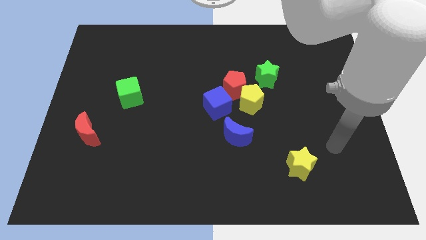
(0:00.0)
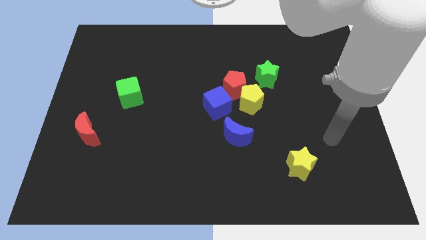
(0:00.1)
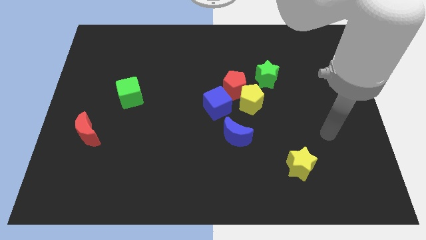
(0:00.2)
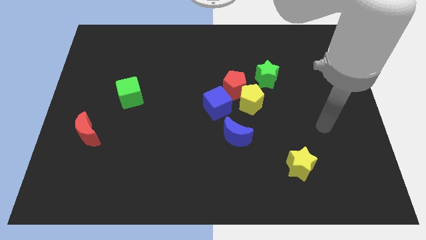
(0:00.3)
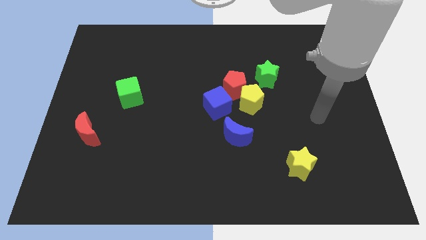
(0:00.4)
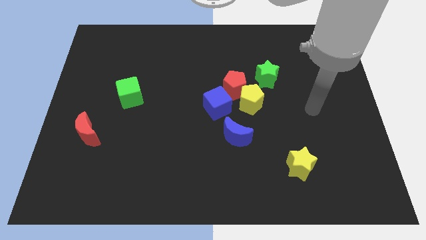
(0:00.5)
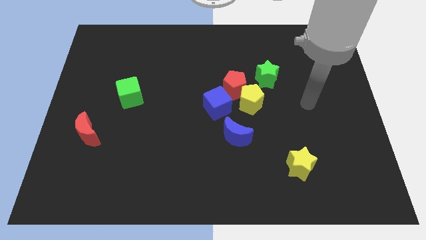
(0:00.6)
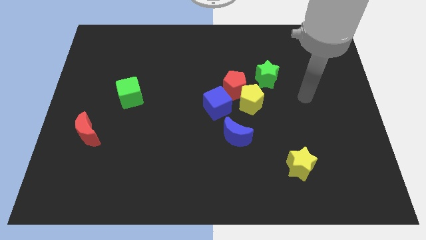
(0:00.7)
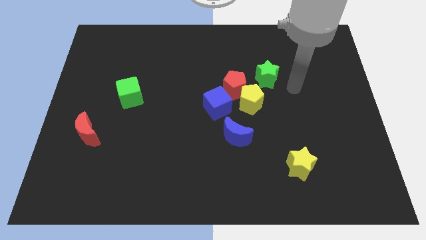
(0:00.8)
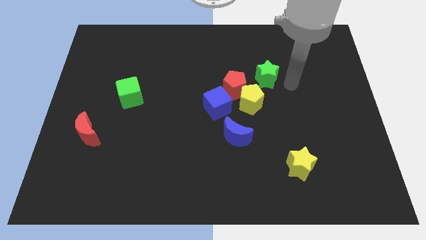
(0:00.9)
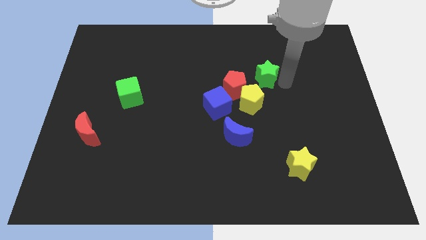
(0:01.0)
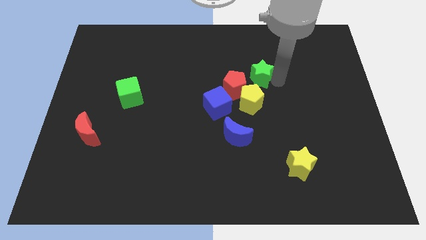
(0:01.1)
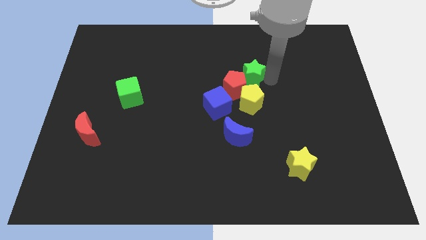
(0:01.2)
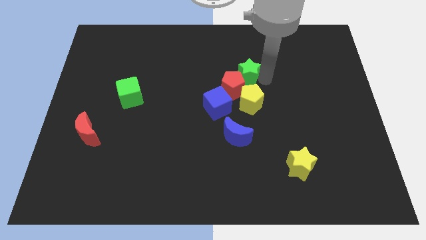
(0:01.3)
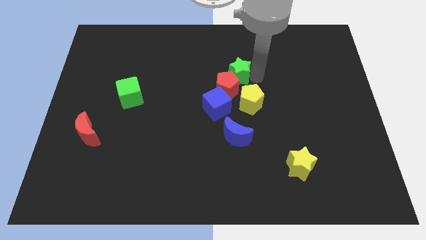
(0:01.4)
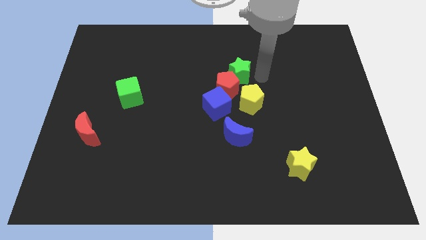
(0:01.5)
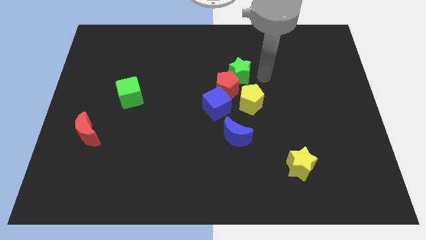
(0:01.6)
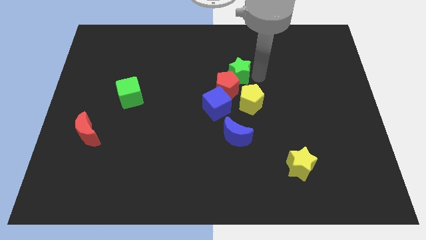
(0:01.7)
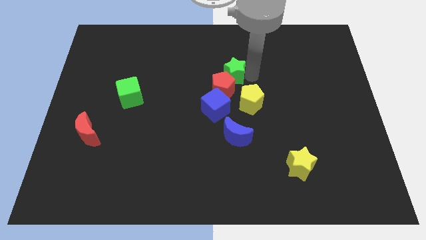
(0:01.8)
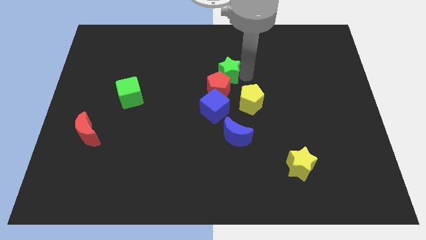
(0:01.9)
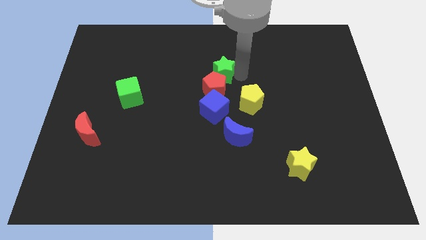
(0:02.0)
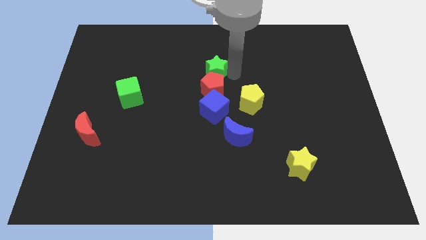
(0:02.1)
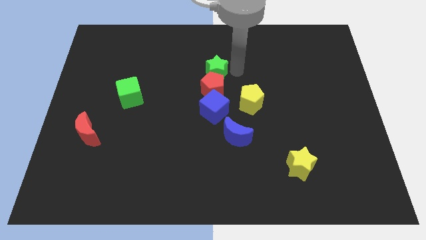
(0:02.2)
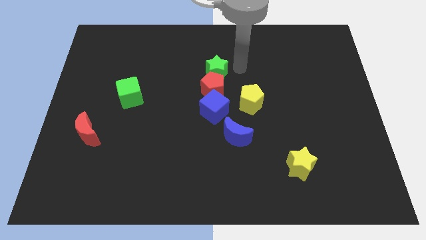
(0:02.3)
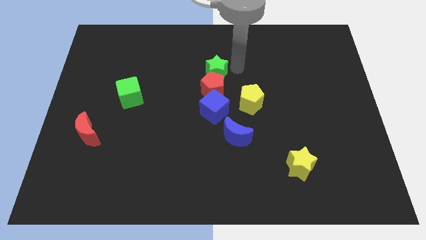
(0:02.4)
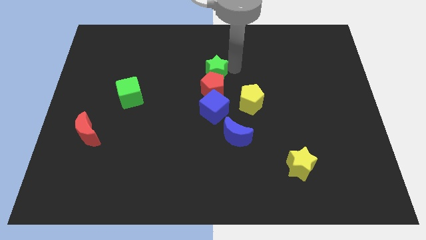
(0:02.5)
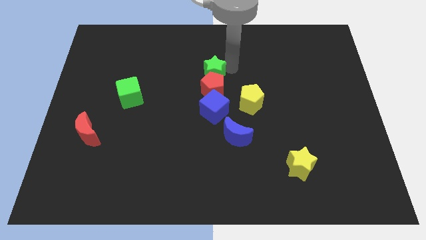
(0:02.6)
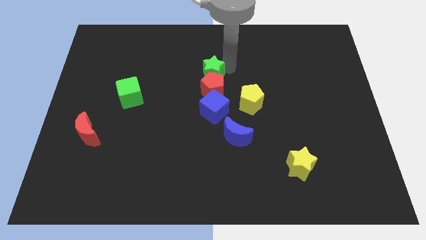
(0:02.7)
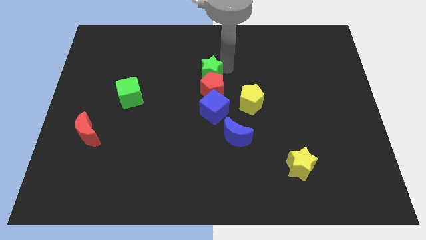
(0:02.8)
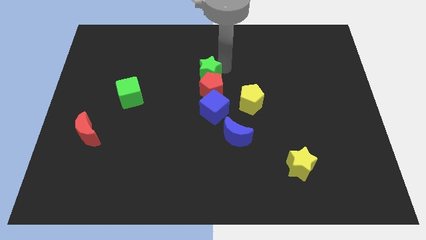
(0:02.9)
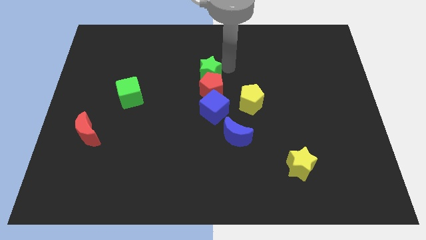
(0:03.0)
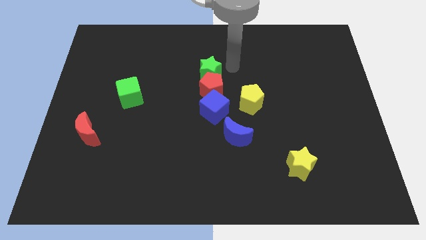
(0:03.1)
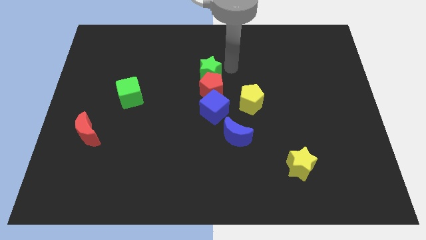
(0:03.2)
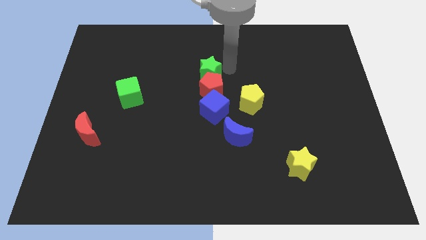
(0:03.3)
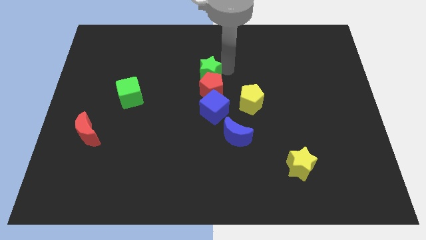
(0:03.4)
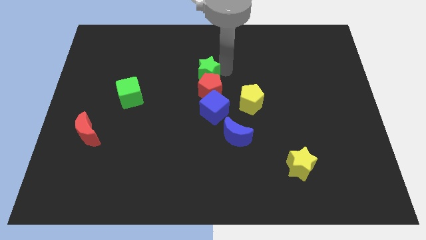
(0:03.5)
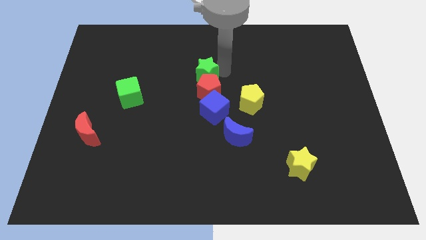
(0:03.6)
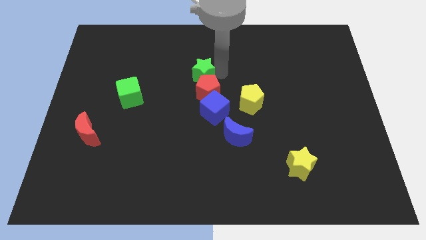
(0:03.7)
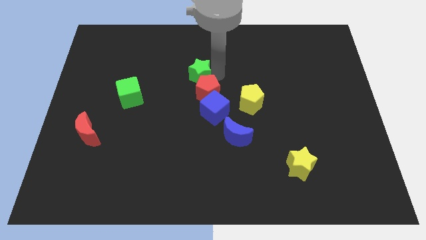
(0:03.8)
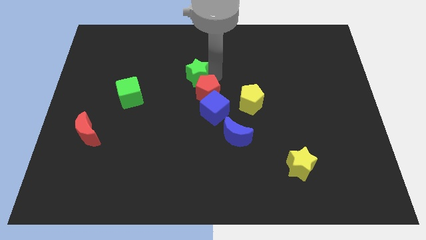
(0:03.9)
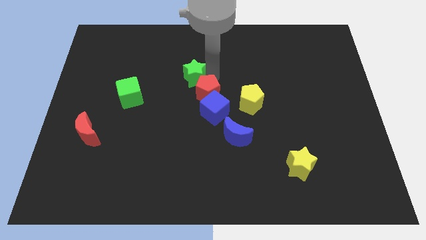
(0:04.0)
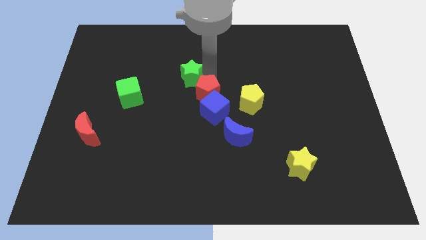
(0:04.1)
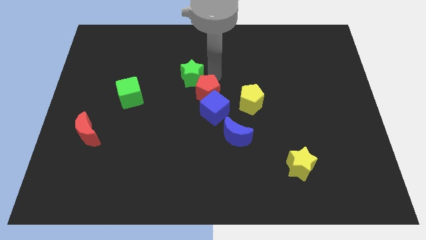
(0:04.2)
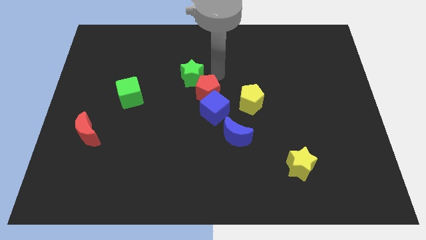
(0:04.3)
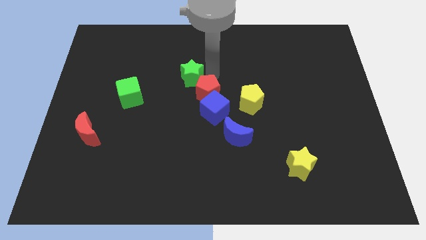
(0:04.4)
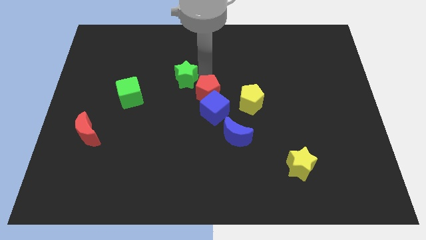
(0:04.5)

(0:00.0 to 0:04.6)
slide the green star left

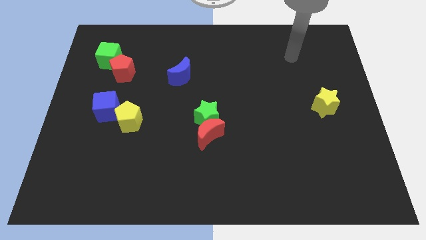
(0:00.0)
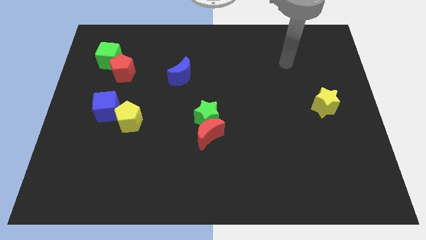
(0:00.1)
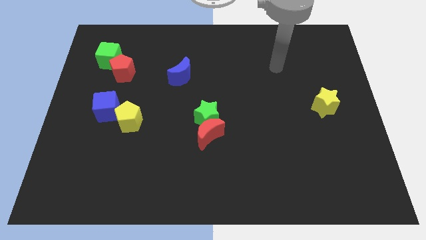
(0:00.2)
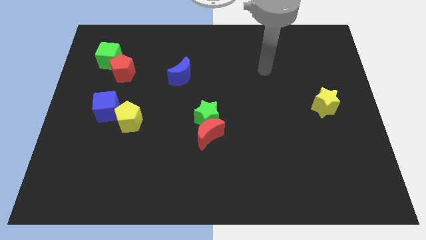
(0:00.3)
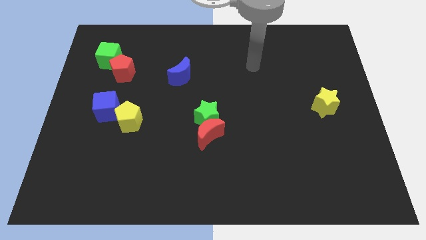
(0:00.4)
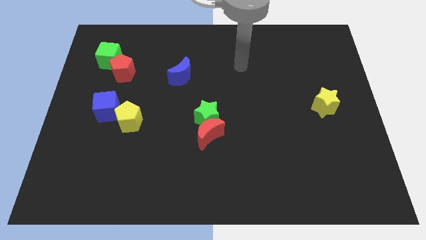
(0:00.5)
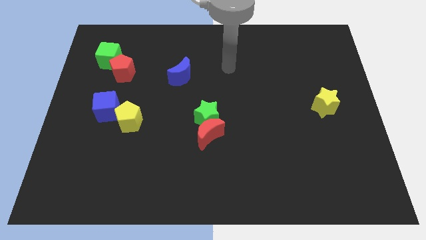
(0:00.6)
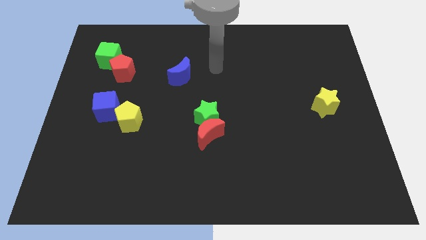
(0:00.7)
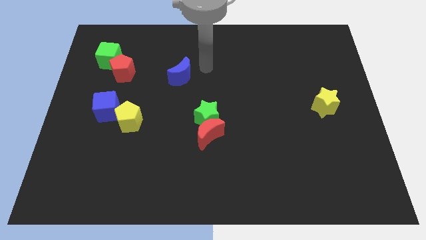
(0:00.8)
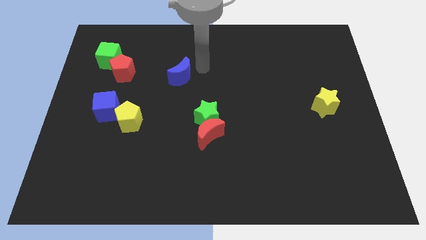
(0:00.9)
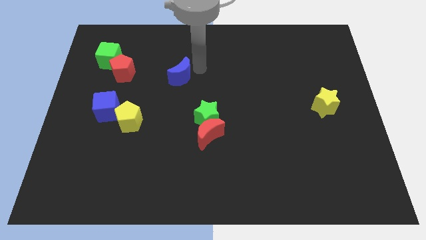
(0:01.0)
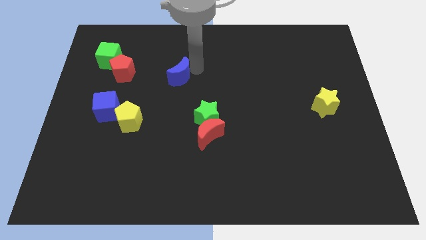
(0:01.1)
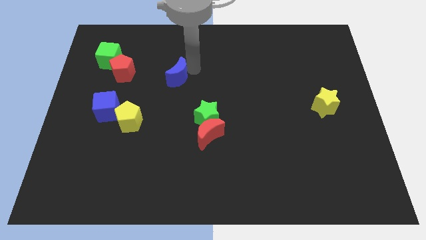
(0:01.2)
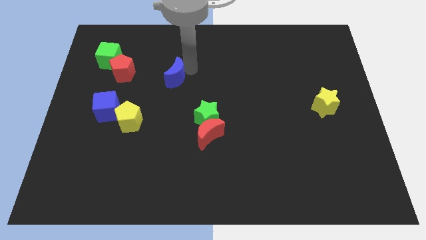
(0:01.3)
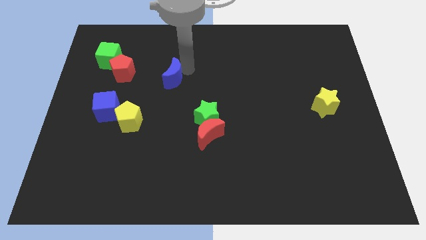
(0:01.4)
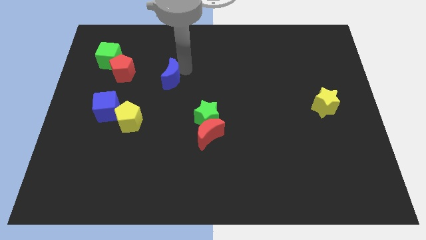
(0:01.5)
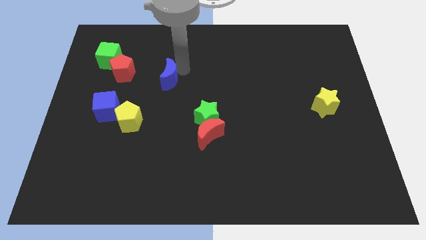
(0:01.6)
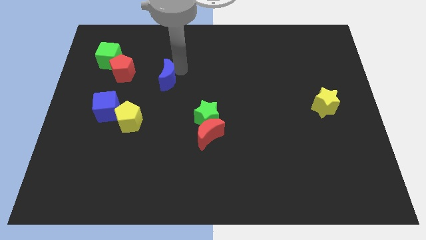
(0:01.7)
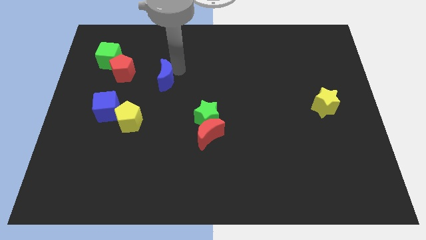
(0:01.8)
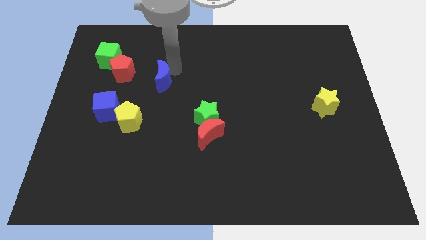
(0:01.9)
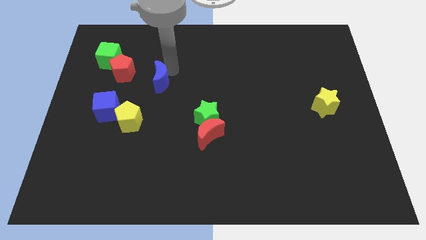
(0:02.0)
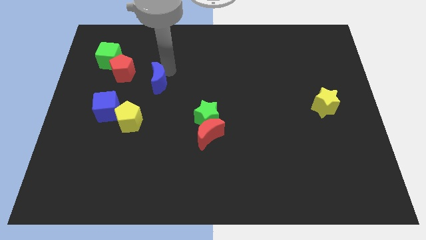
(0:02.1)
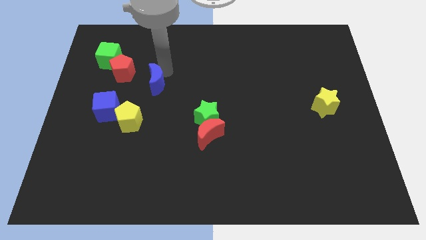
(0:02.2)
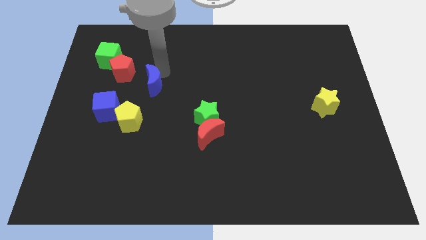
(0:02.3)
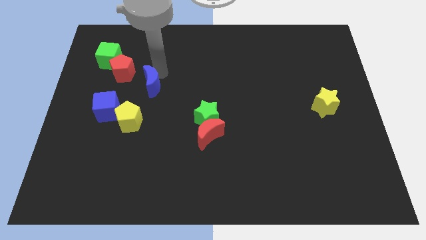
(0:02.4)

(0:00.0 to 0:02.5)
move the blue moon to the left a little

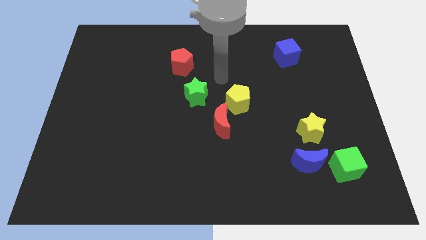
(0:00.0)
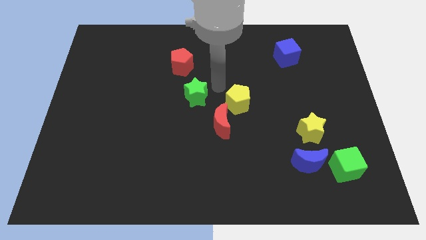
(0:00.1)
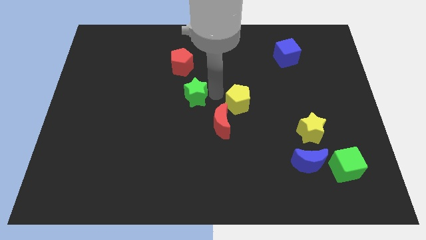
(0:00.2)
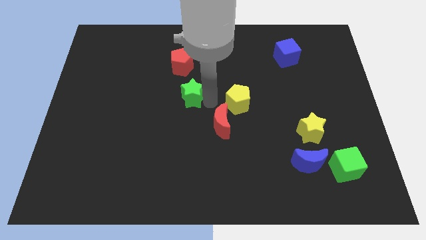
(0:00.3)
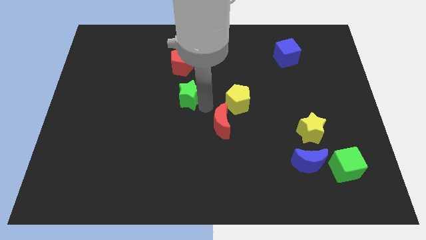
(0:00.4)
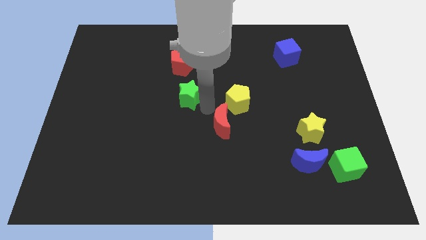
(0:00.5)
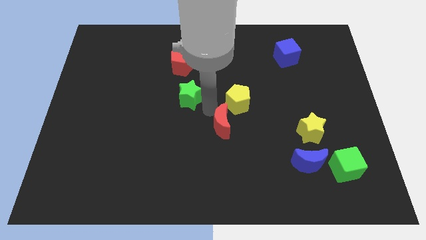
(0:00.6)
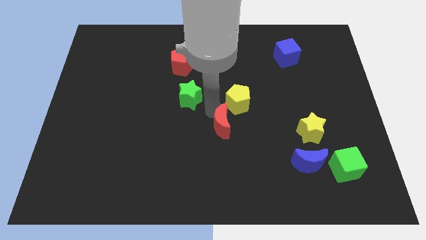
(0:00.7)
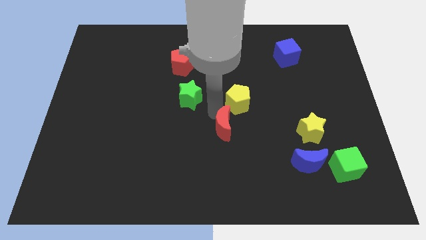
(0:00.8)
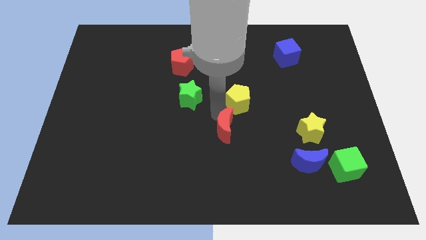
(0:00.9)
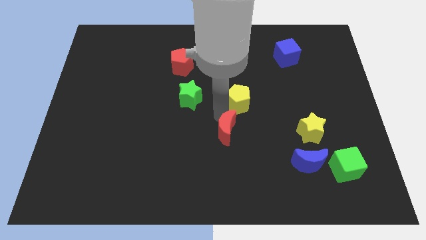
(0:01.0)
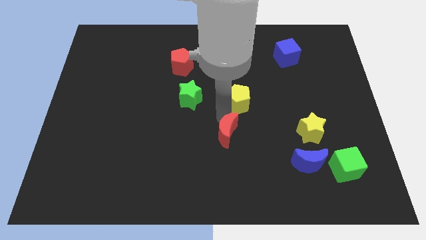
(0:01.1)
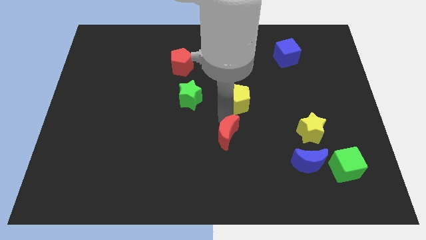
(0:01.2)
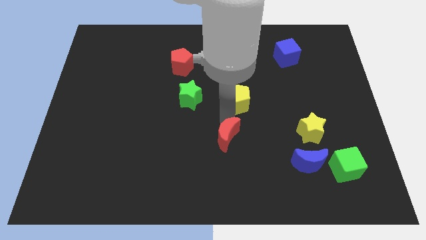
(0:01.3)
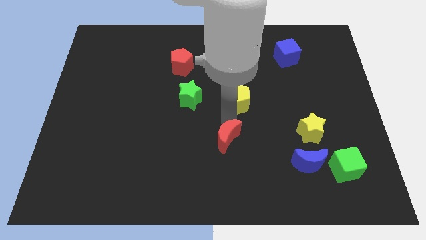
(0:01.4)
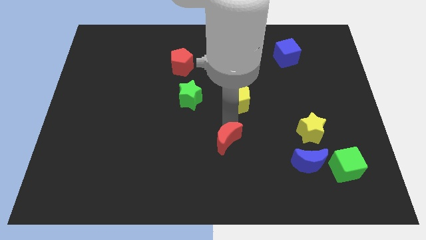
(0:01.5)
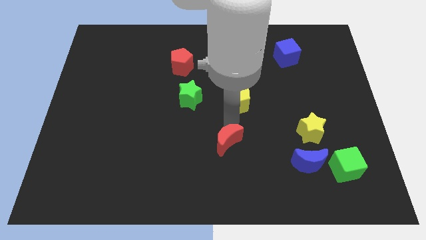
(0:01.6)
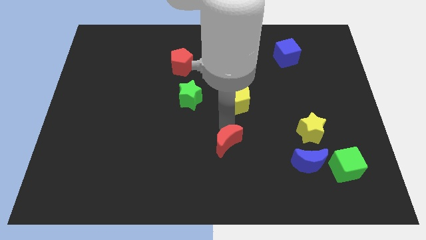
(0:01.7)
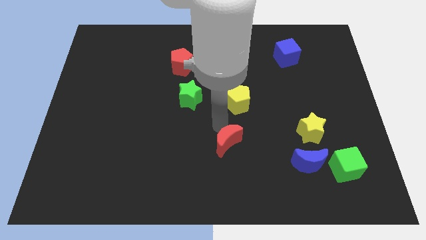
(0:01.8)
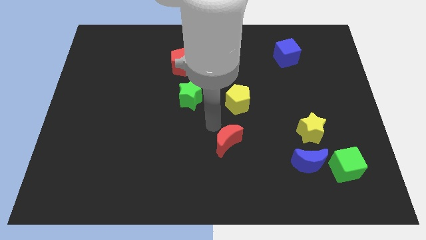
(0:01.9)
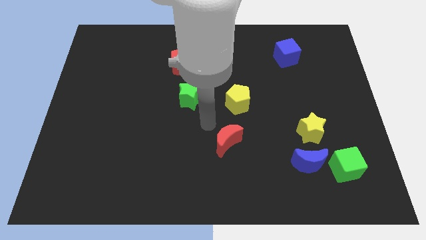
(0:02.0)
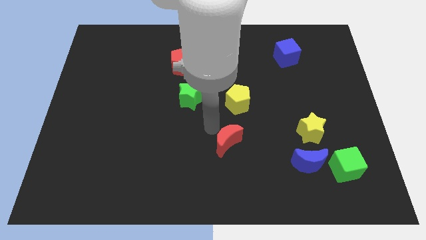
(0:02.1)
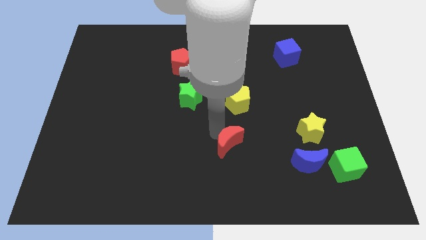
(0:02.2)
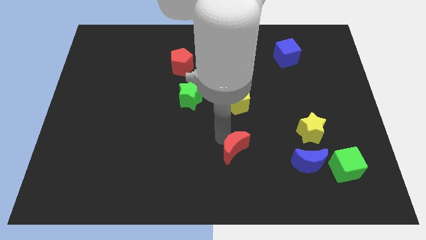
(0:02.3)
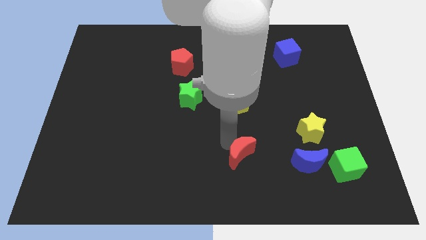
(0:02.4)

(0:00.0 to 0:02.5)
slide the red moon a little diagonally downwards and right
